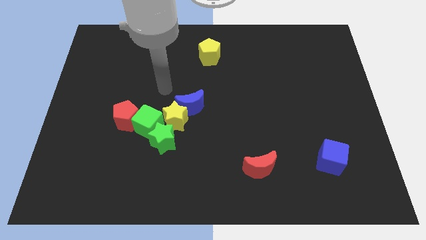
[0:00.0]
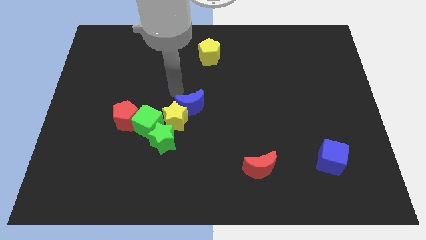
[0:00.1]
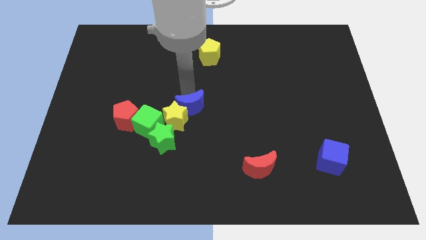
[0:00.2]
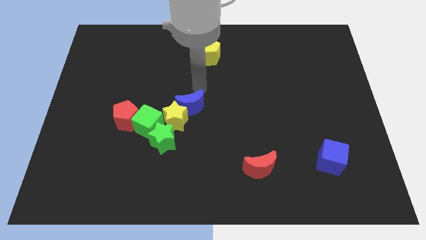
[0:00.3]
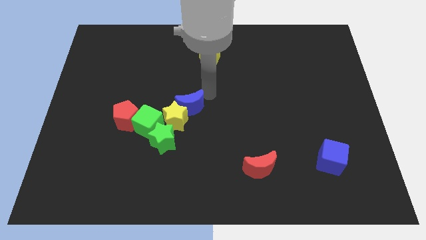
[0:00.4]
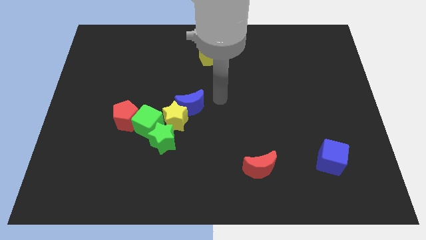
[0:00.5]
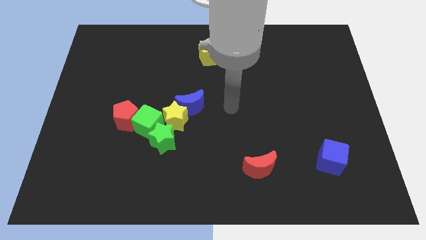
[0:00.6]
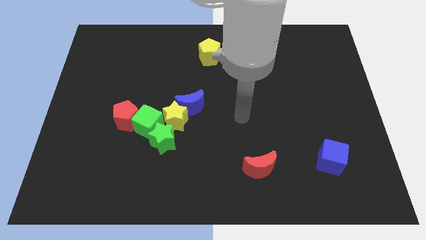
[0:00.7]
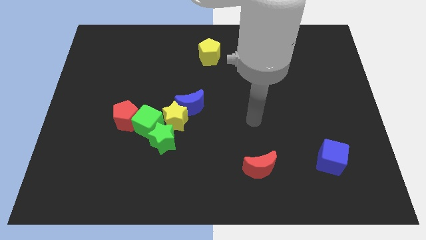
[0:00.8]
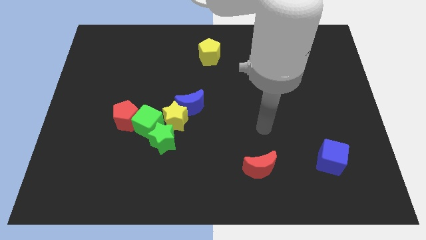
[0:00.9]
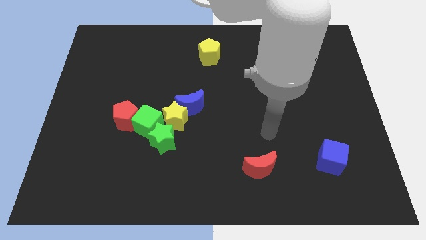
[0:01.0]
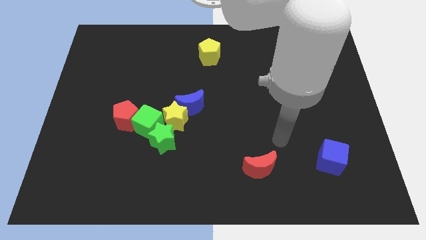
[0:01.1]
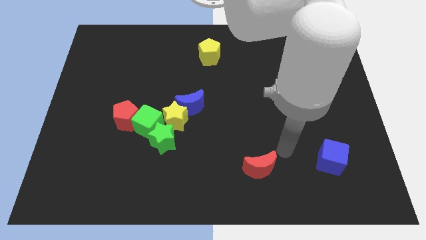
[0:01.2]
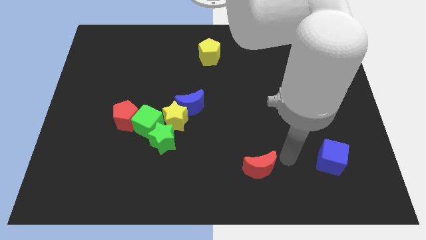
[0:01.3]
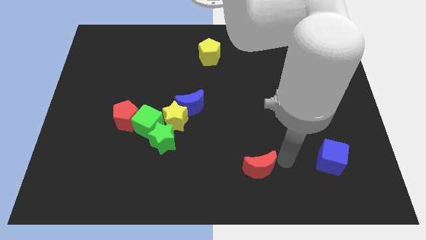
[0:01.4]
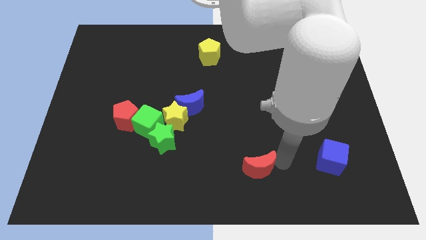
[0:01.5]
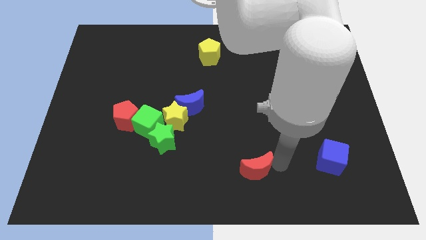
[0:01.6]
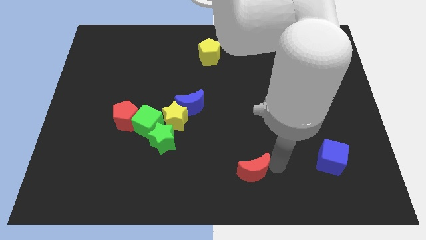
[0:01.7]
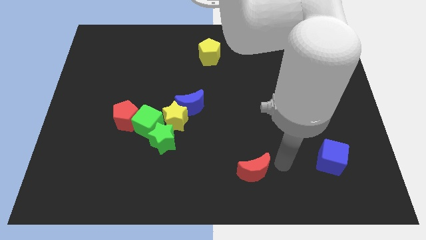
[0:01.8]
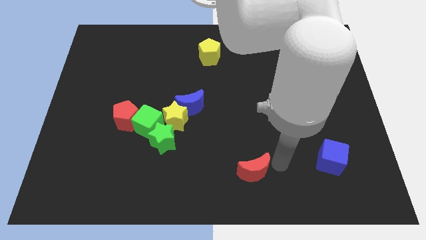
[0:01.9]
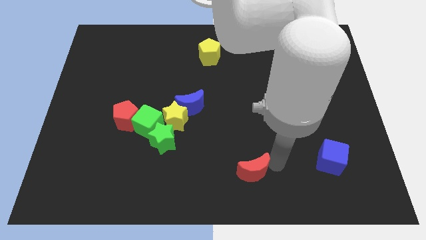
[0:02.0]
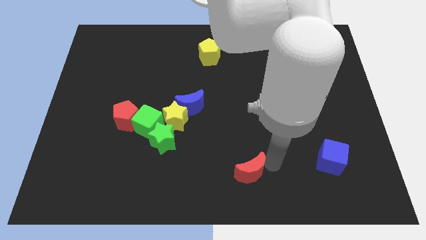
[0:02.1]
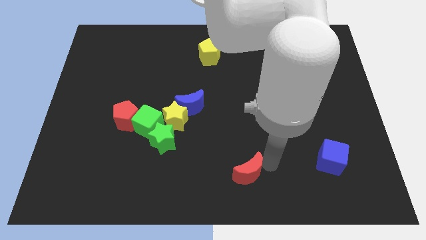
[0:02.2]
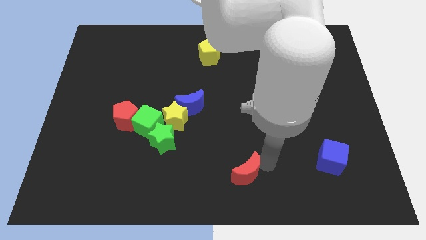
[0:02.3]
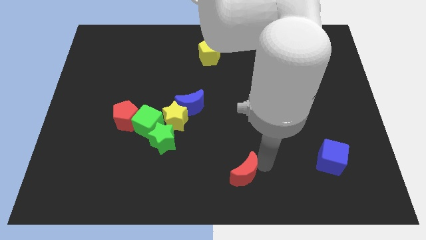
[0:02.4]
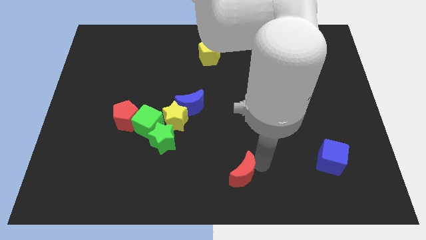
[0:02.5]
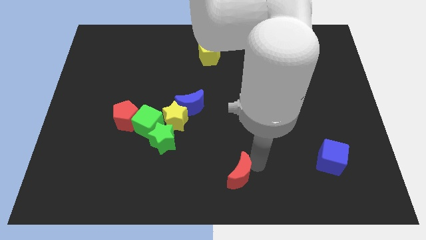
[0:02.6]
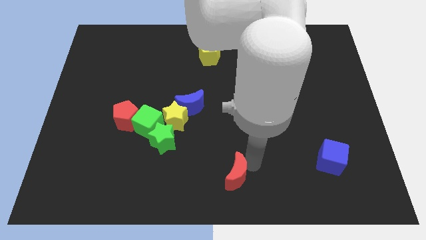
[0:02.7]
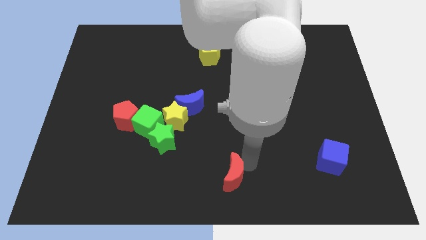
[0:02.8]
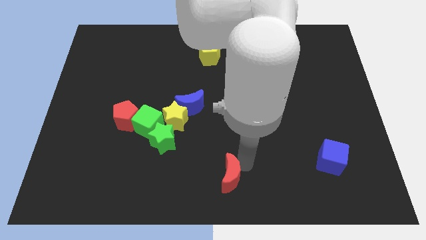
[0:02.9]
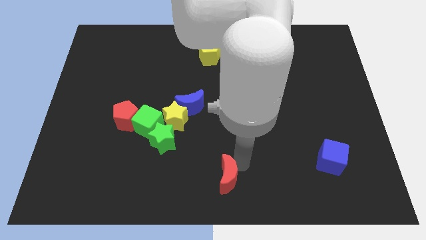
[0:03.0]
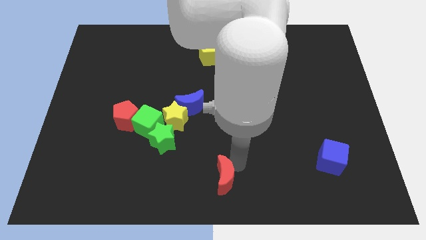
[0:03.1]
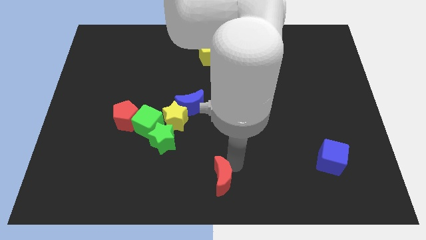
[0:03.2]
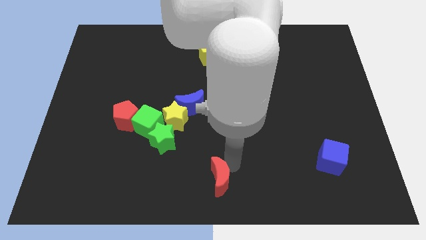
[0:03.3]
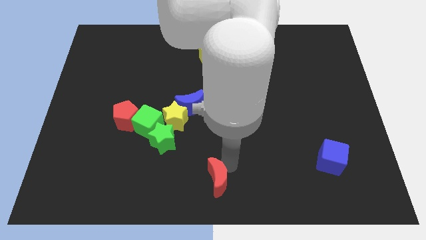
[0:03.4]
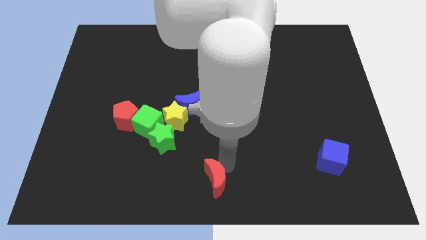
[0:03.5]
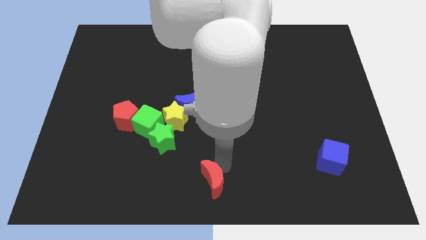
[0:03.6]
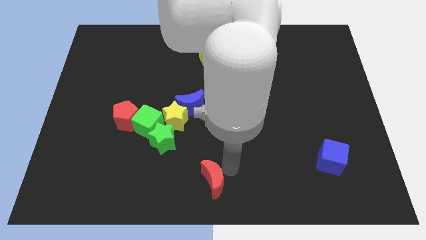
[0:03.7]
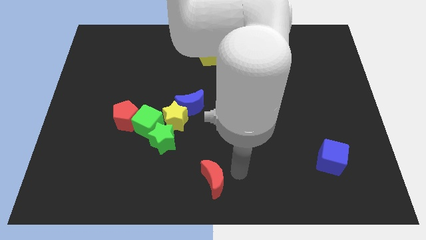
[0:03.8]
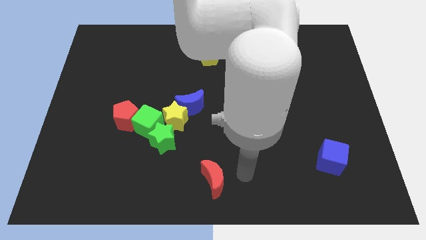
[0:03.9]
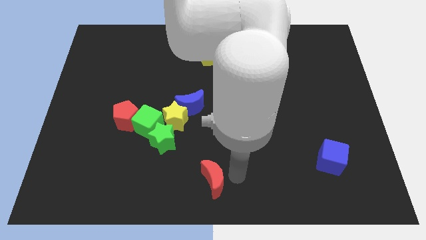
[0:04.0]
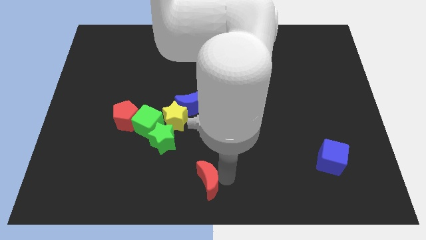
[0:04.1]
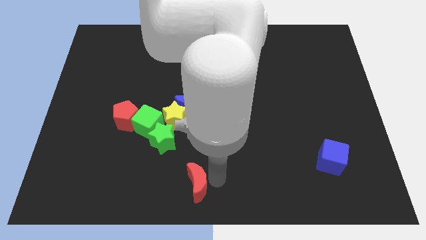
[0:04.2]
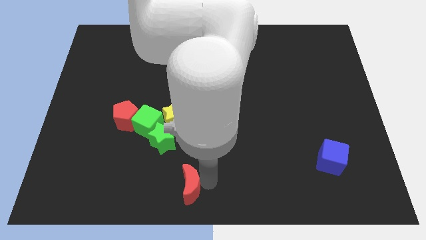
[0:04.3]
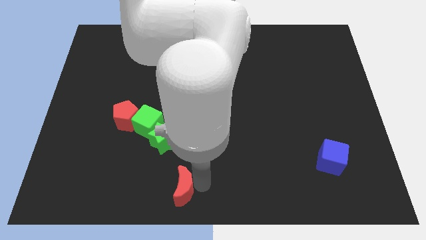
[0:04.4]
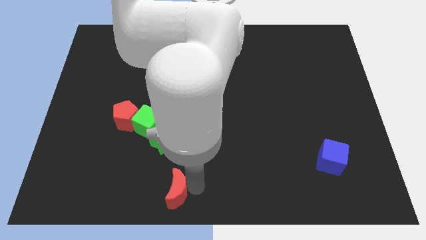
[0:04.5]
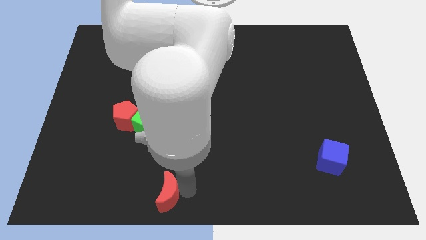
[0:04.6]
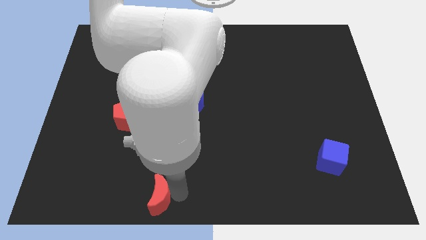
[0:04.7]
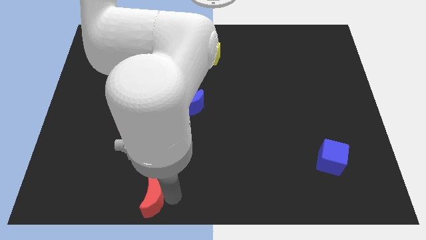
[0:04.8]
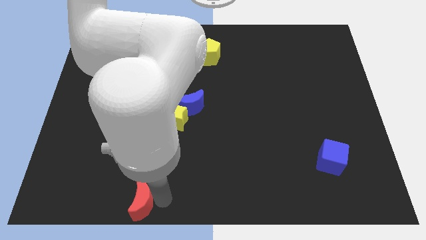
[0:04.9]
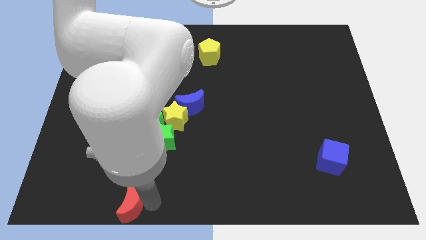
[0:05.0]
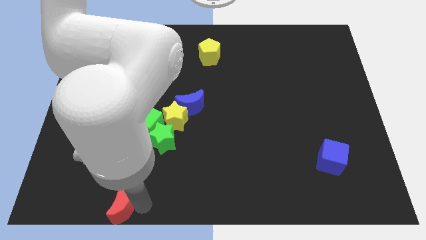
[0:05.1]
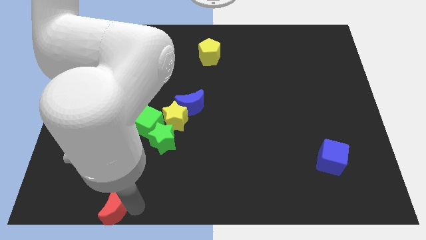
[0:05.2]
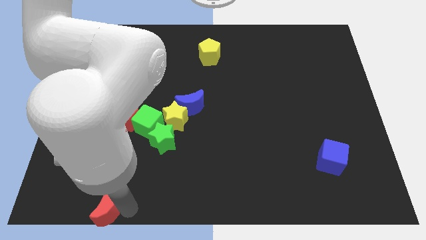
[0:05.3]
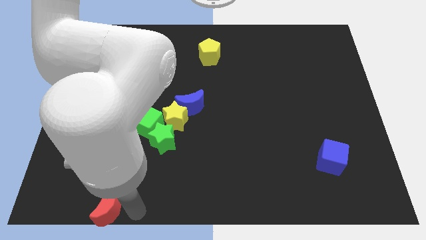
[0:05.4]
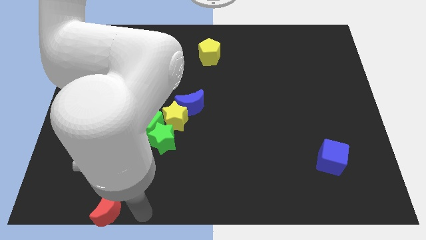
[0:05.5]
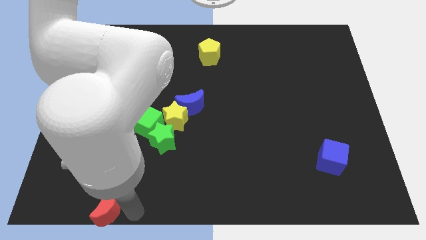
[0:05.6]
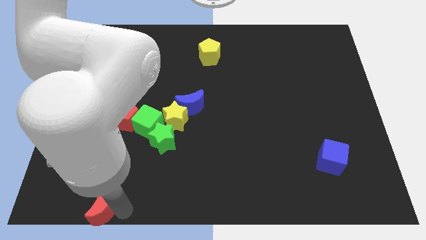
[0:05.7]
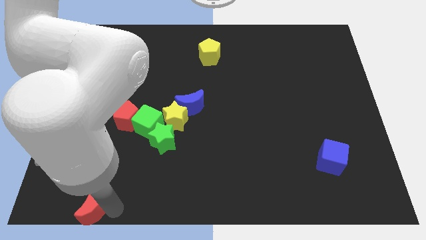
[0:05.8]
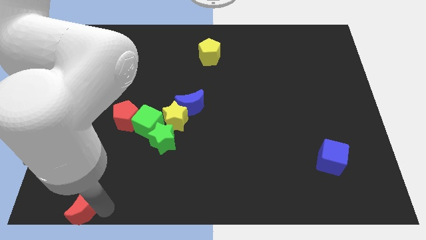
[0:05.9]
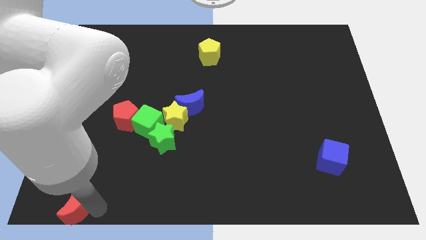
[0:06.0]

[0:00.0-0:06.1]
put the red moon to the bottom left of the board
